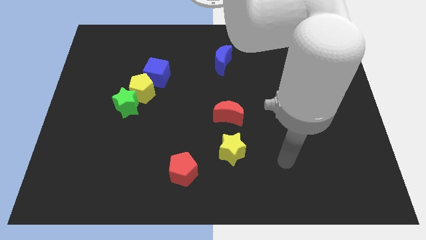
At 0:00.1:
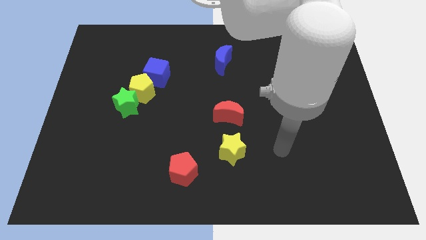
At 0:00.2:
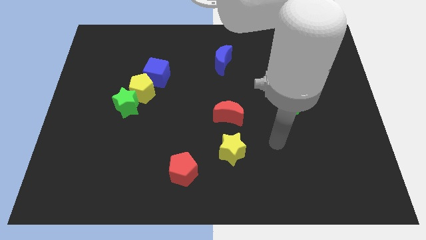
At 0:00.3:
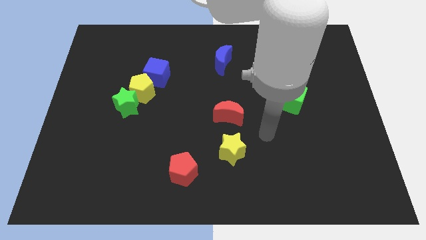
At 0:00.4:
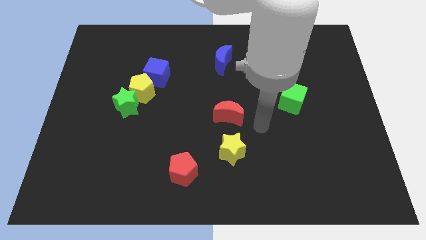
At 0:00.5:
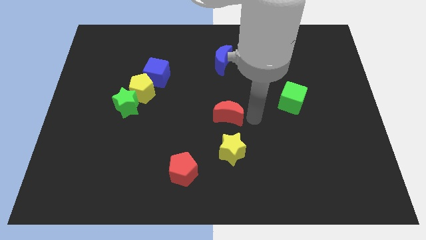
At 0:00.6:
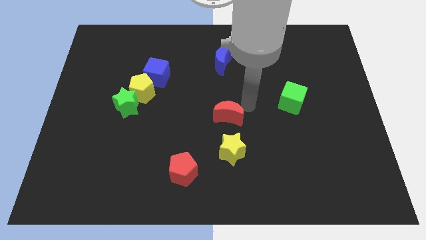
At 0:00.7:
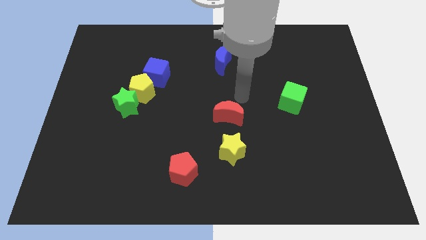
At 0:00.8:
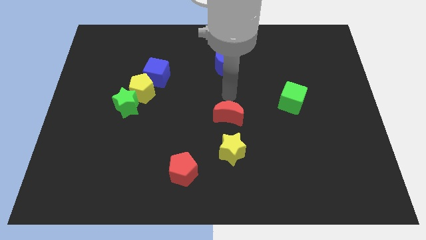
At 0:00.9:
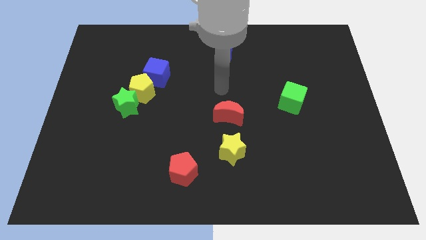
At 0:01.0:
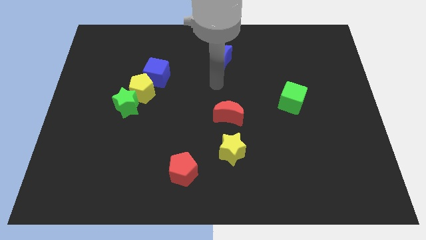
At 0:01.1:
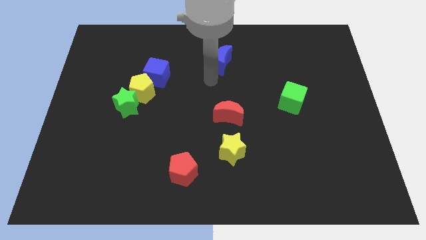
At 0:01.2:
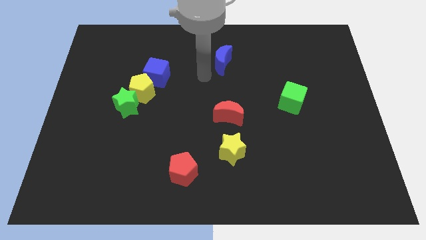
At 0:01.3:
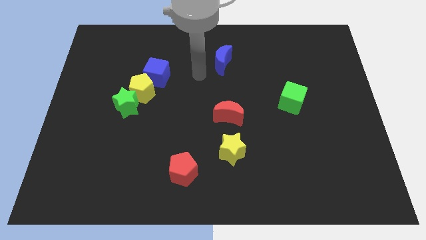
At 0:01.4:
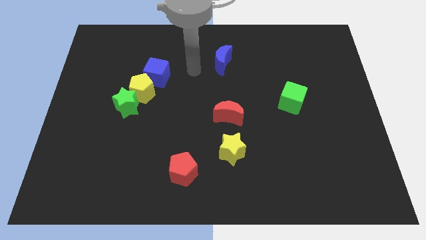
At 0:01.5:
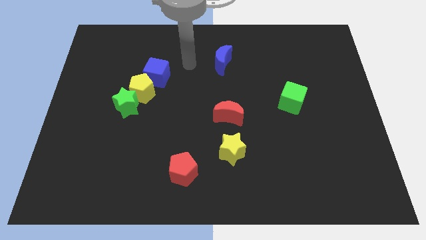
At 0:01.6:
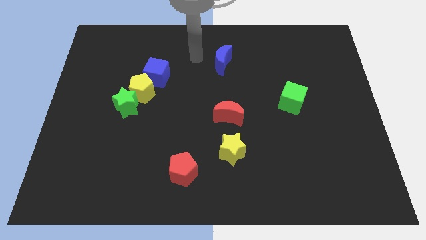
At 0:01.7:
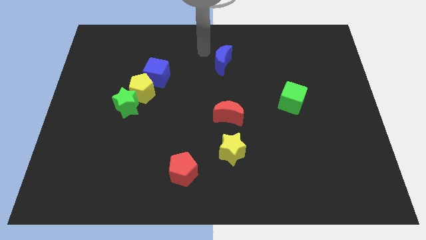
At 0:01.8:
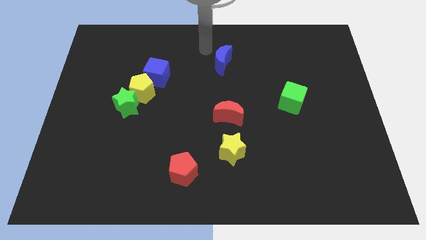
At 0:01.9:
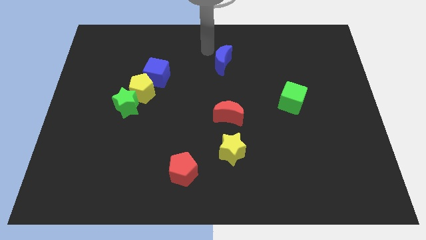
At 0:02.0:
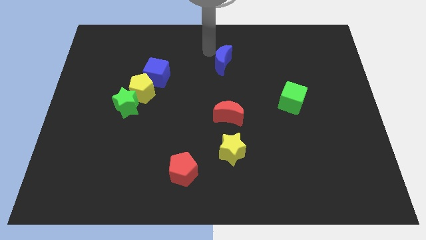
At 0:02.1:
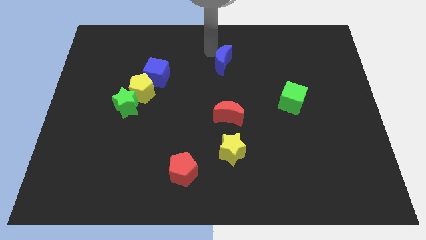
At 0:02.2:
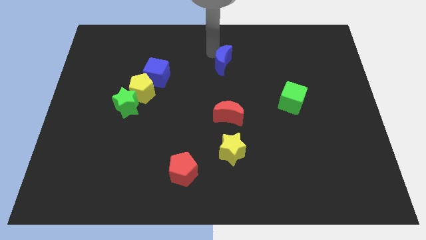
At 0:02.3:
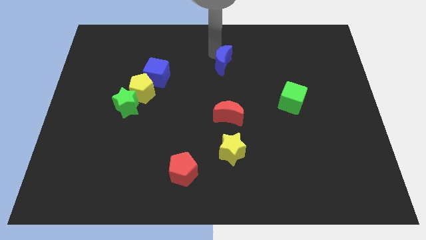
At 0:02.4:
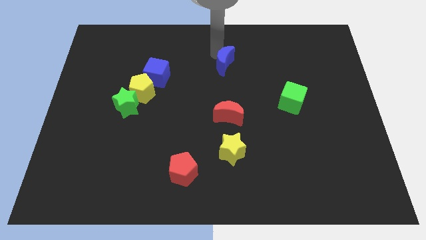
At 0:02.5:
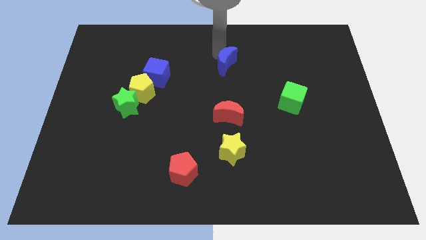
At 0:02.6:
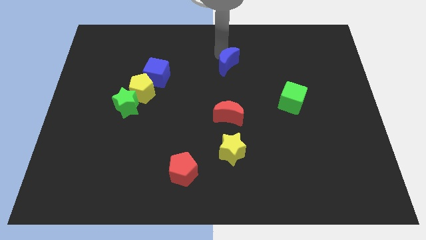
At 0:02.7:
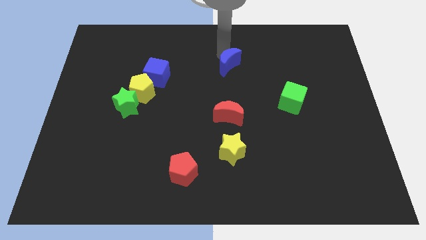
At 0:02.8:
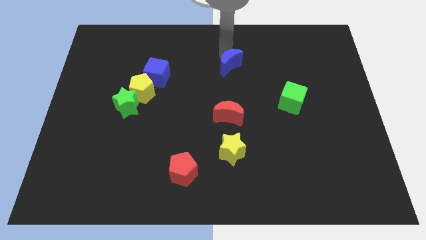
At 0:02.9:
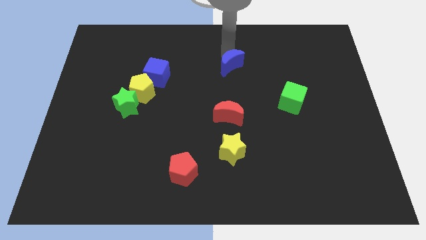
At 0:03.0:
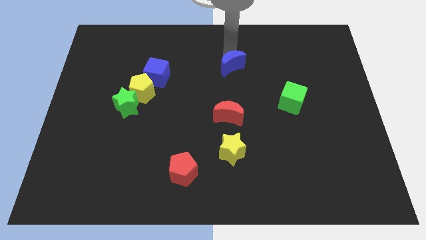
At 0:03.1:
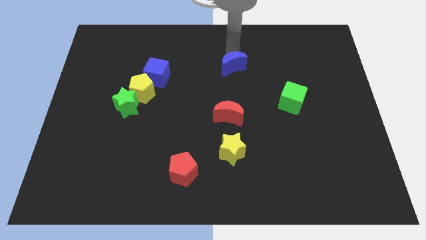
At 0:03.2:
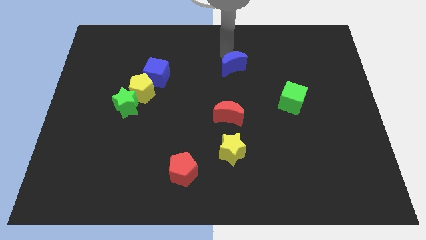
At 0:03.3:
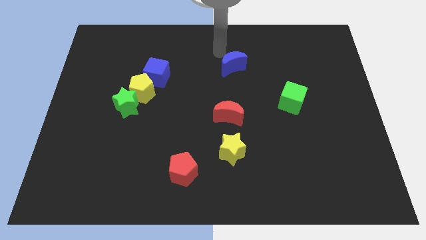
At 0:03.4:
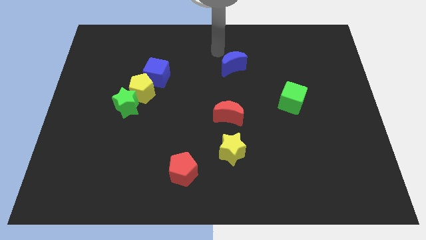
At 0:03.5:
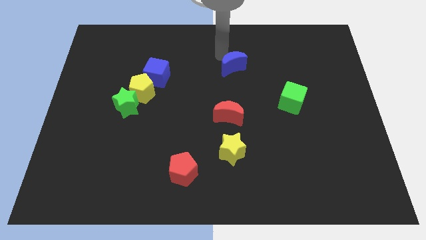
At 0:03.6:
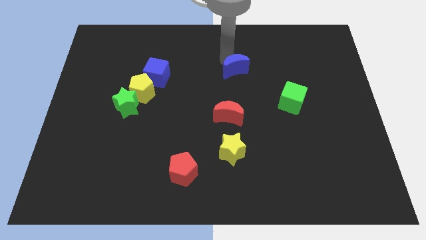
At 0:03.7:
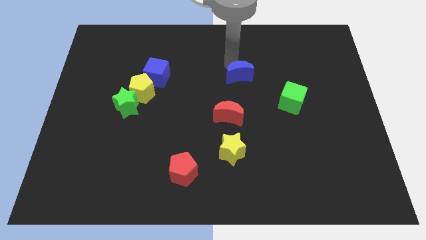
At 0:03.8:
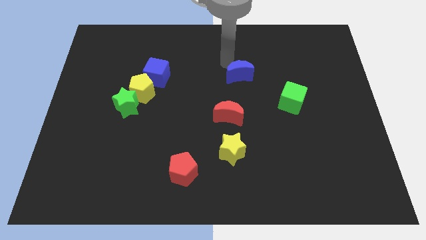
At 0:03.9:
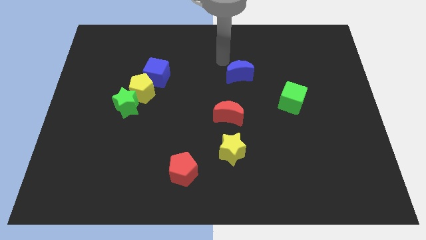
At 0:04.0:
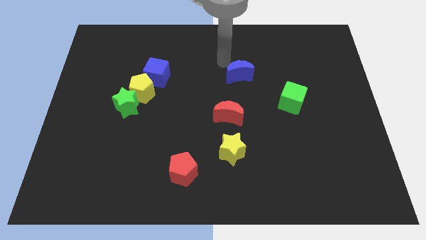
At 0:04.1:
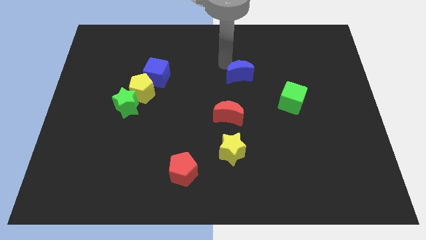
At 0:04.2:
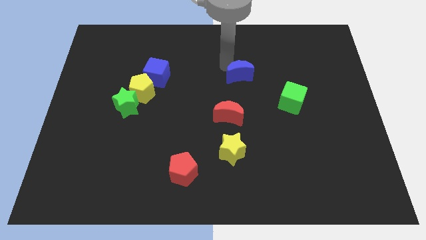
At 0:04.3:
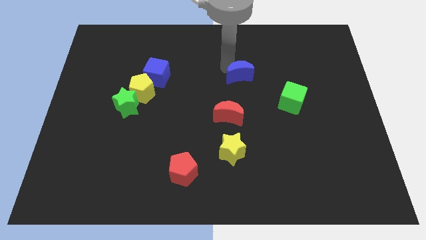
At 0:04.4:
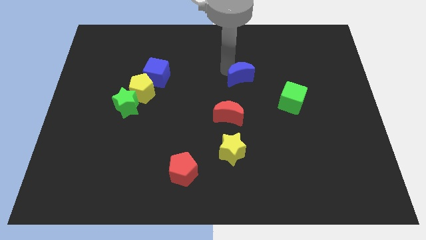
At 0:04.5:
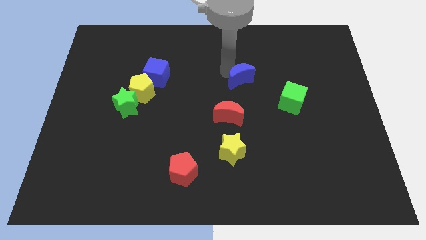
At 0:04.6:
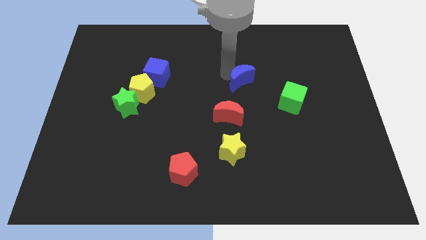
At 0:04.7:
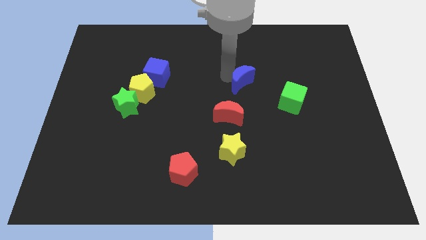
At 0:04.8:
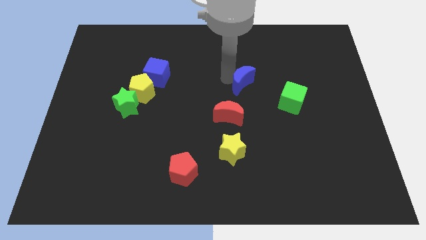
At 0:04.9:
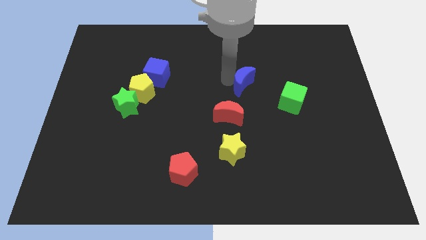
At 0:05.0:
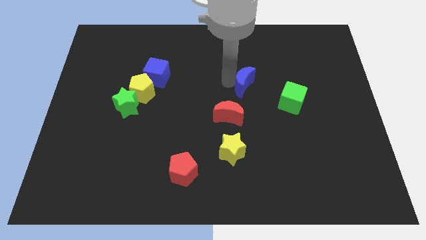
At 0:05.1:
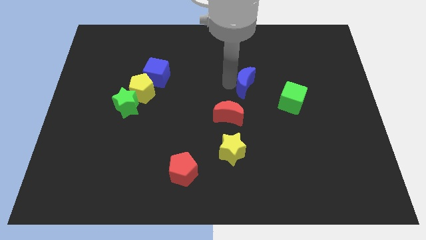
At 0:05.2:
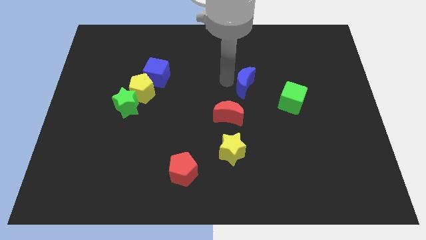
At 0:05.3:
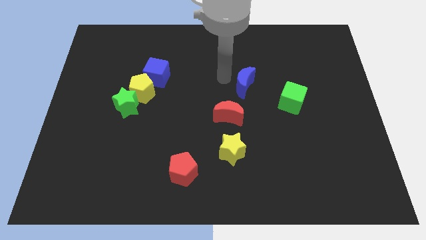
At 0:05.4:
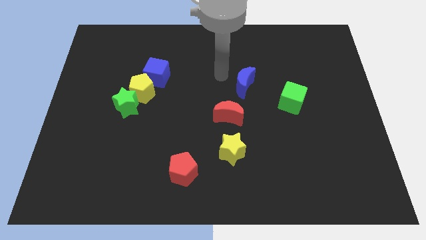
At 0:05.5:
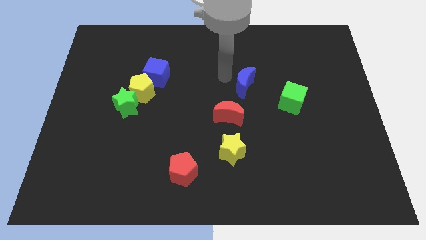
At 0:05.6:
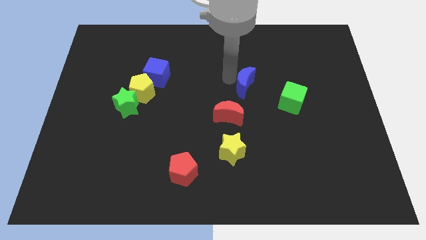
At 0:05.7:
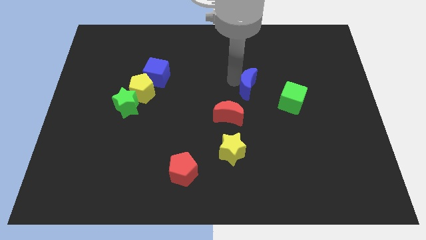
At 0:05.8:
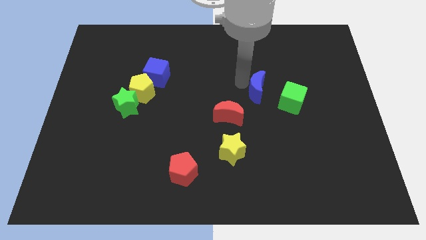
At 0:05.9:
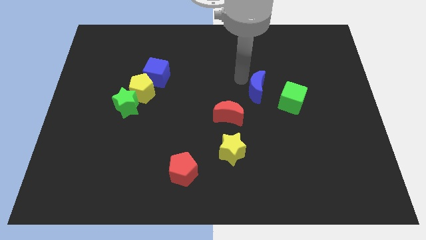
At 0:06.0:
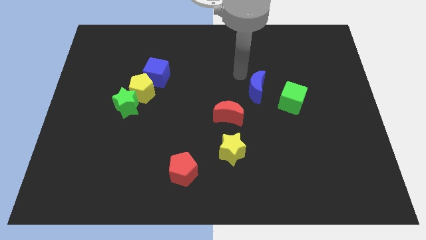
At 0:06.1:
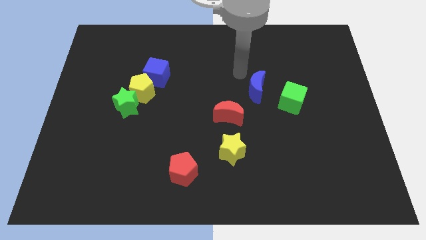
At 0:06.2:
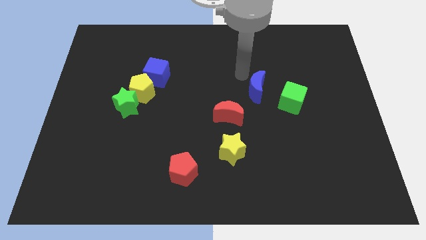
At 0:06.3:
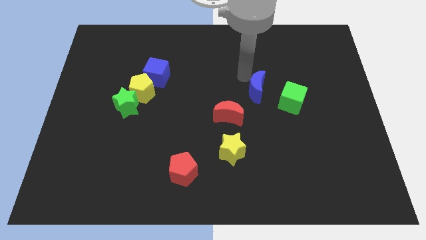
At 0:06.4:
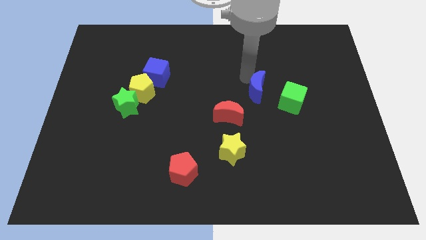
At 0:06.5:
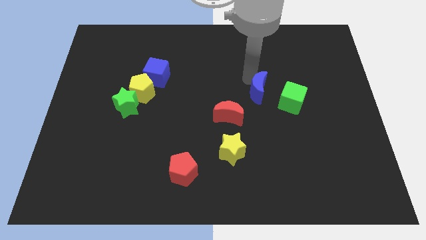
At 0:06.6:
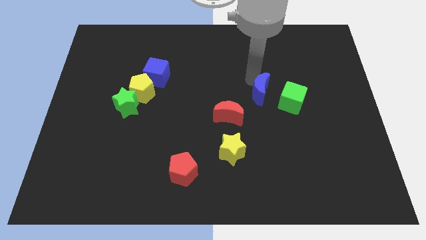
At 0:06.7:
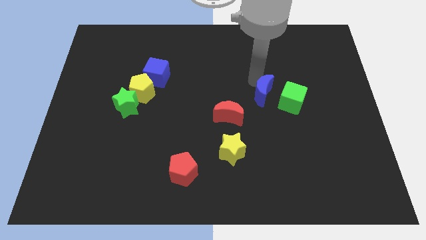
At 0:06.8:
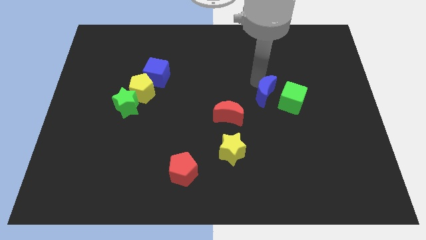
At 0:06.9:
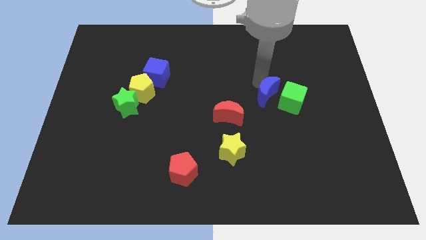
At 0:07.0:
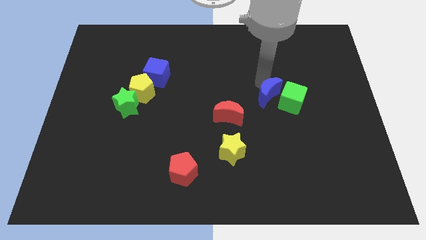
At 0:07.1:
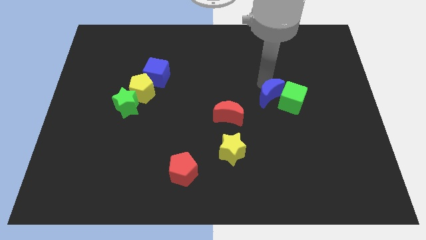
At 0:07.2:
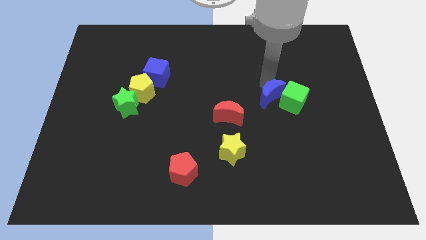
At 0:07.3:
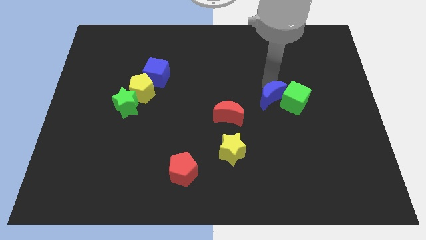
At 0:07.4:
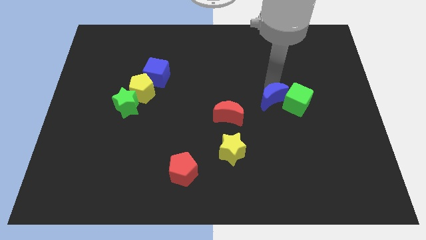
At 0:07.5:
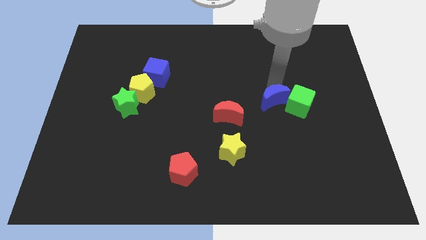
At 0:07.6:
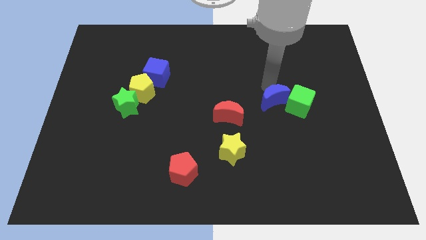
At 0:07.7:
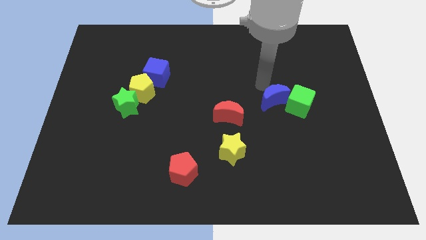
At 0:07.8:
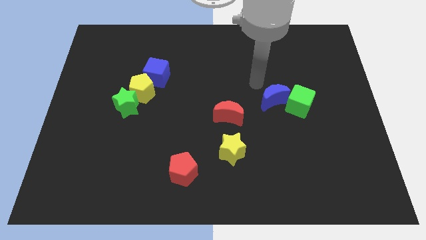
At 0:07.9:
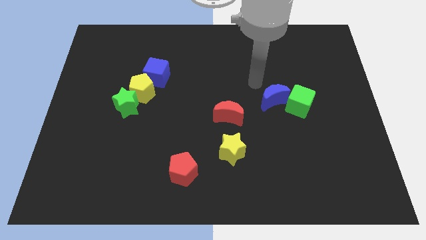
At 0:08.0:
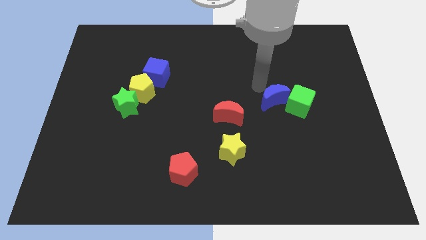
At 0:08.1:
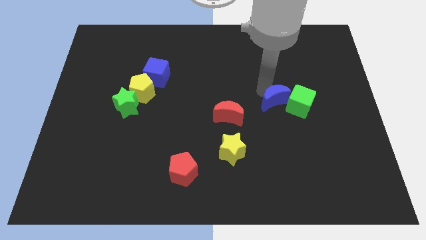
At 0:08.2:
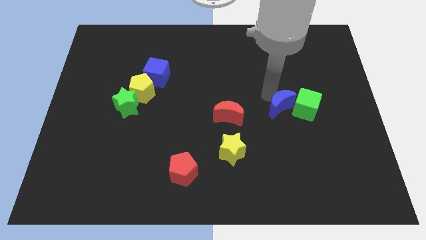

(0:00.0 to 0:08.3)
move the blue moon downwards and then to the right

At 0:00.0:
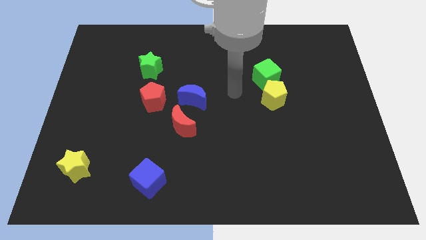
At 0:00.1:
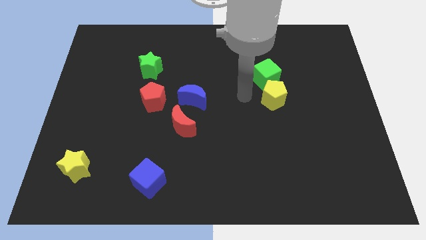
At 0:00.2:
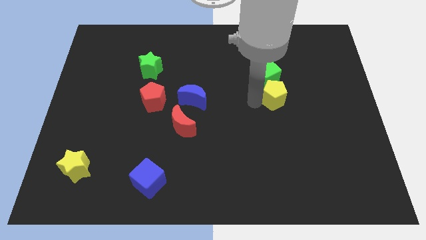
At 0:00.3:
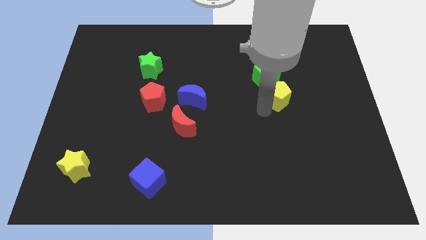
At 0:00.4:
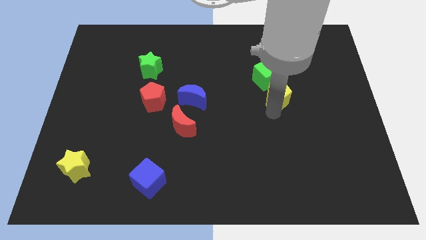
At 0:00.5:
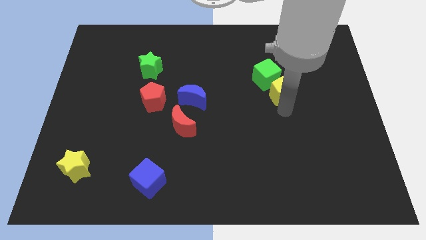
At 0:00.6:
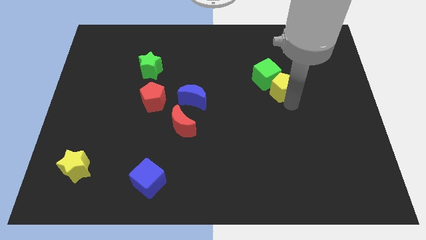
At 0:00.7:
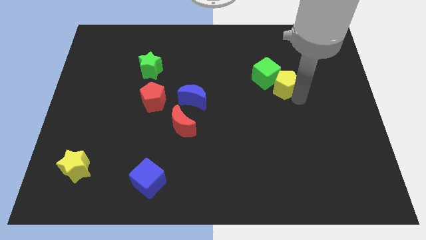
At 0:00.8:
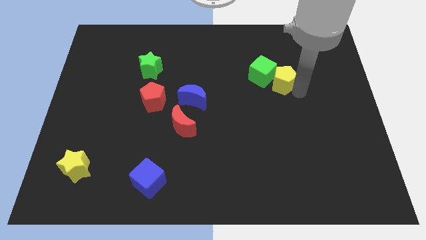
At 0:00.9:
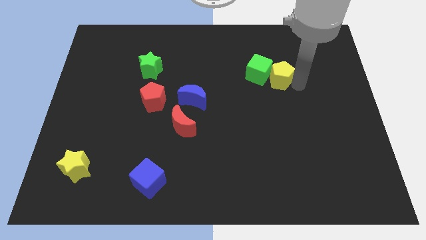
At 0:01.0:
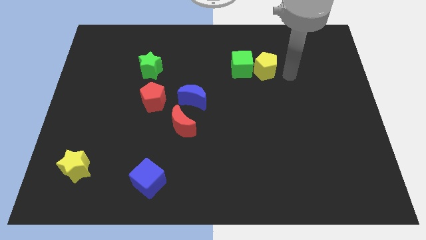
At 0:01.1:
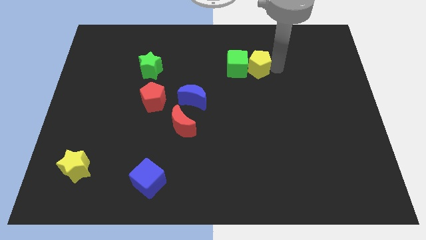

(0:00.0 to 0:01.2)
slightly slide the green cube left
